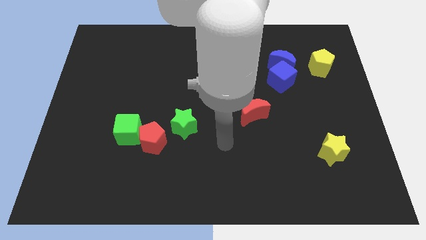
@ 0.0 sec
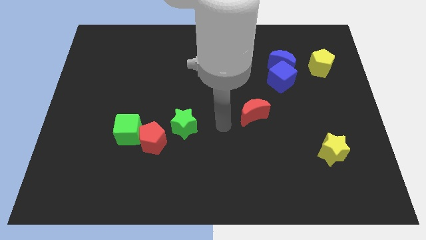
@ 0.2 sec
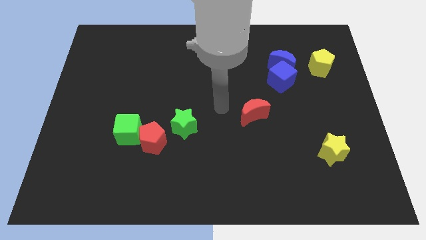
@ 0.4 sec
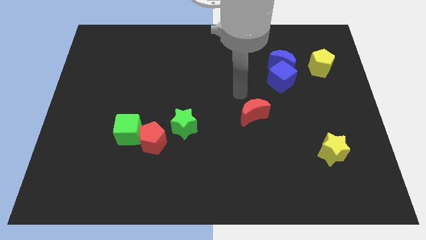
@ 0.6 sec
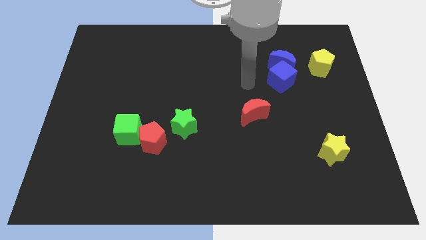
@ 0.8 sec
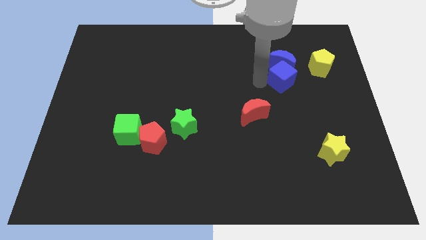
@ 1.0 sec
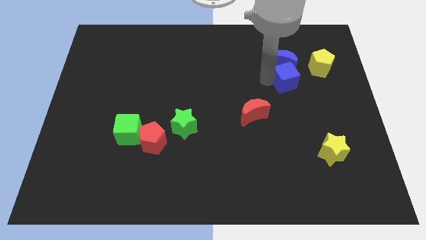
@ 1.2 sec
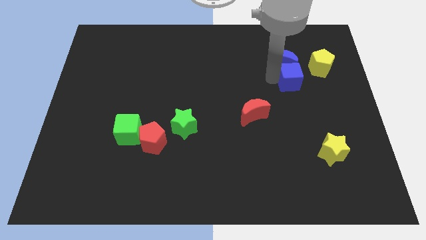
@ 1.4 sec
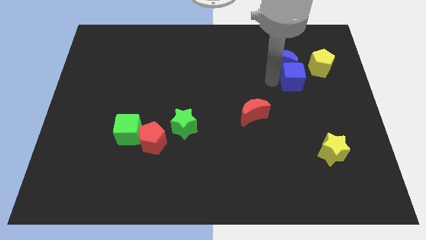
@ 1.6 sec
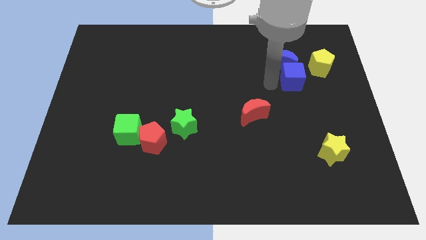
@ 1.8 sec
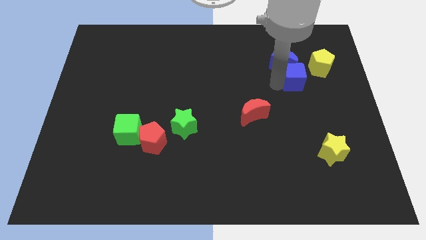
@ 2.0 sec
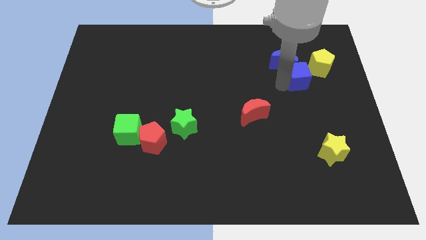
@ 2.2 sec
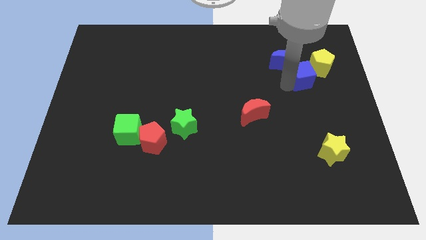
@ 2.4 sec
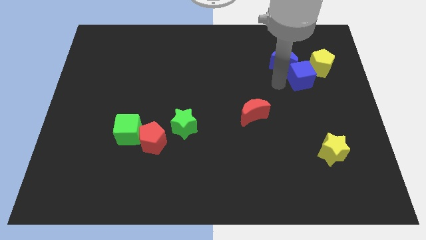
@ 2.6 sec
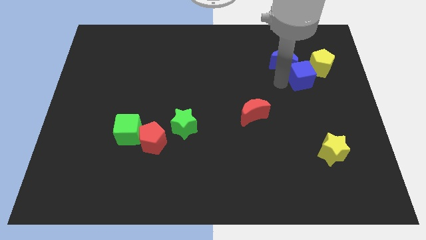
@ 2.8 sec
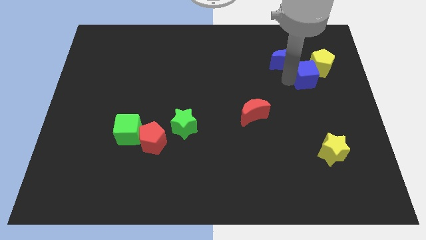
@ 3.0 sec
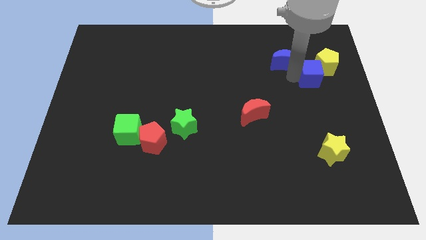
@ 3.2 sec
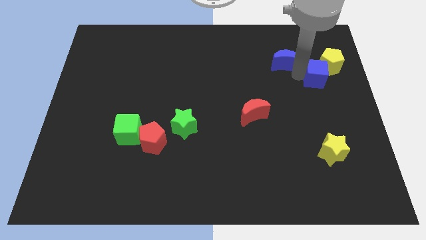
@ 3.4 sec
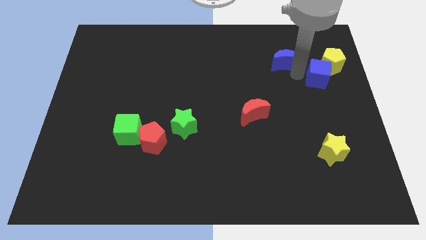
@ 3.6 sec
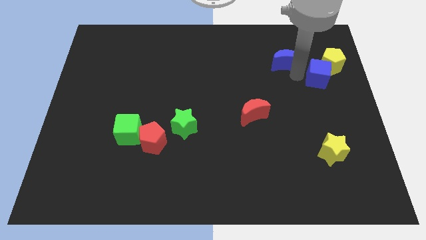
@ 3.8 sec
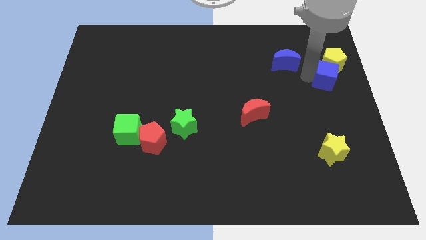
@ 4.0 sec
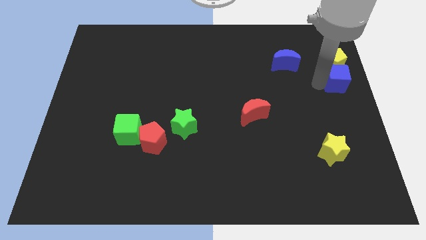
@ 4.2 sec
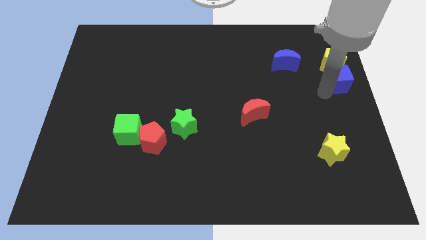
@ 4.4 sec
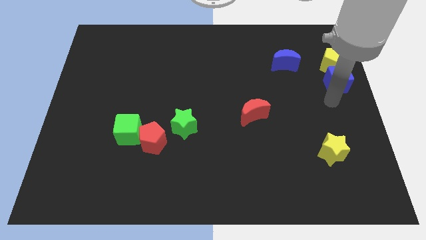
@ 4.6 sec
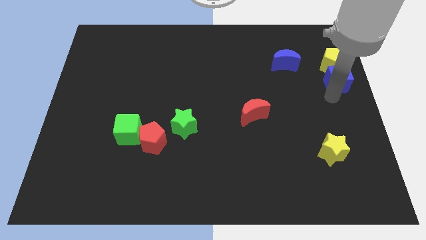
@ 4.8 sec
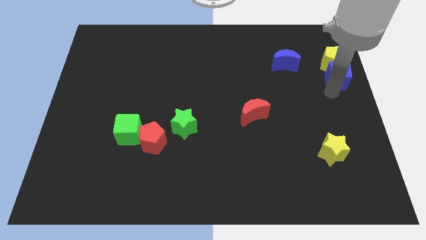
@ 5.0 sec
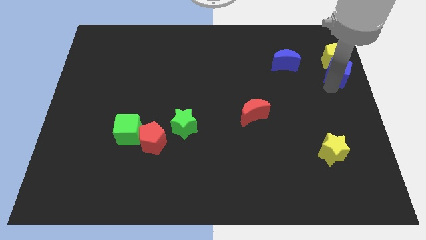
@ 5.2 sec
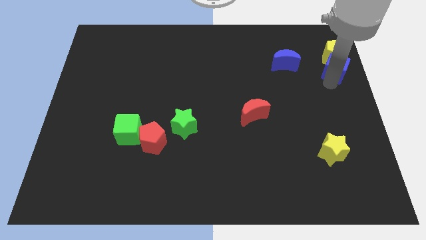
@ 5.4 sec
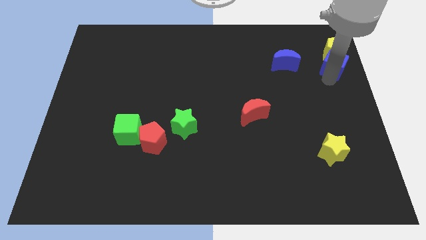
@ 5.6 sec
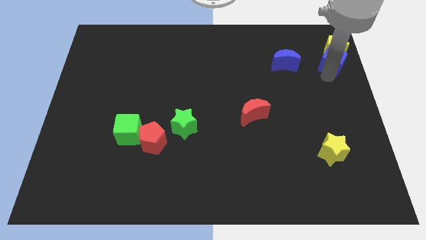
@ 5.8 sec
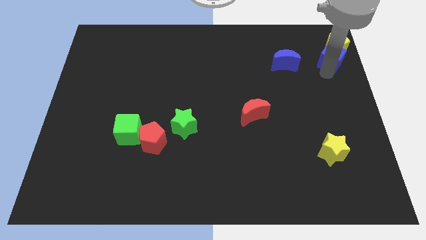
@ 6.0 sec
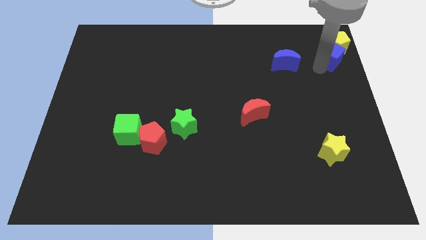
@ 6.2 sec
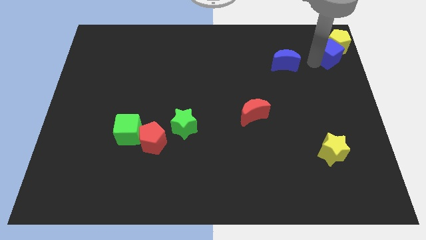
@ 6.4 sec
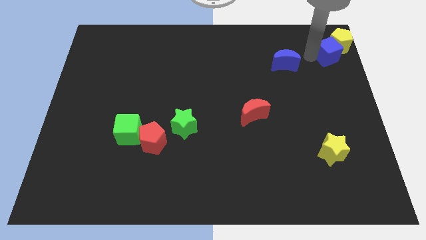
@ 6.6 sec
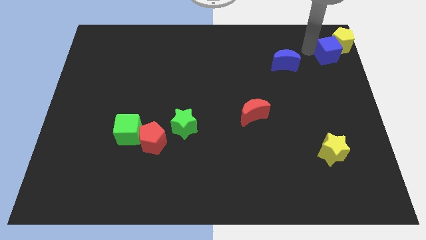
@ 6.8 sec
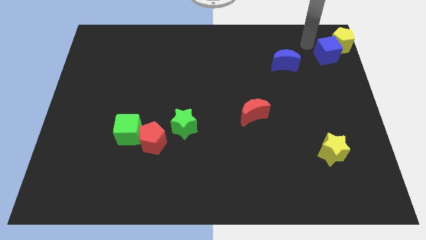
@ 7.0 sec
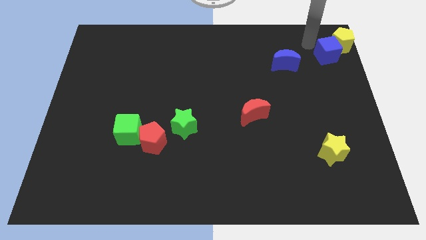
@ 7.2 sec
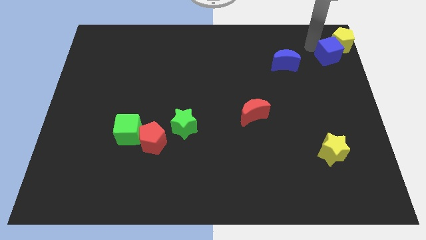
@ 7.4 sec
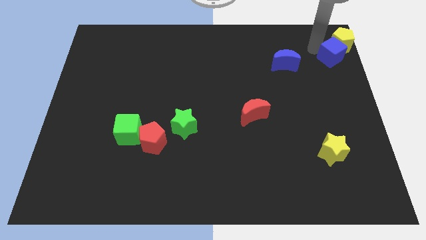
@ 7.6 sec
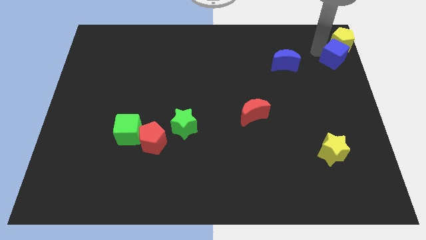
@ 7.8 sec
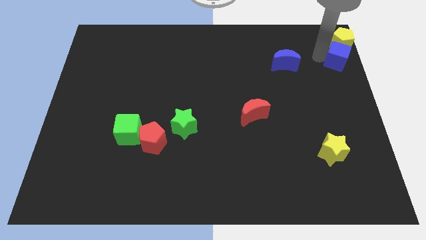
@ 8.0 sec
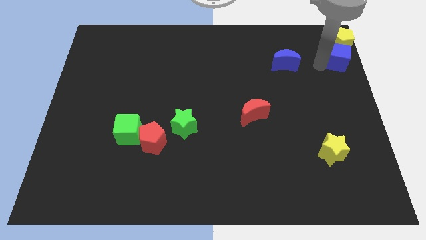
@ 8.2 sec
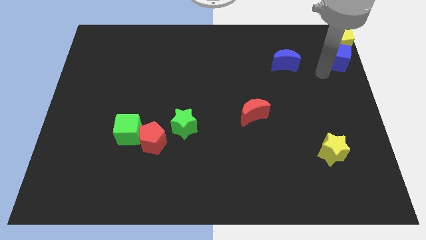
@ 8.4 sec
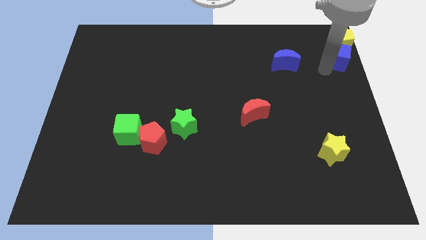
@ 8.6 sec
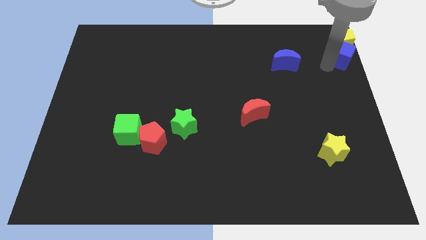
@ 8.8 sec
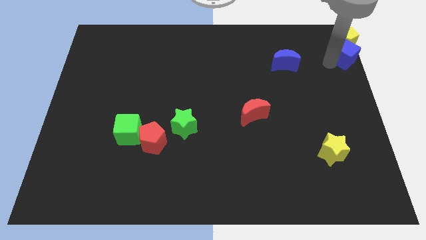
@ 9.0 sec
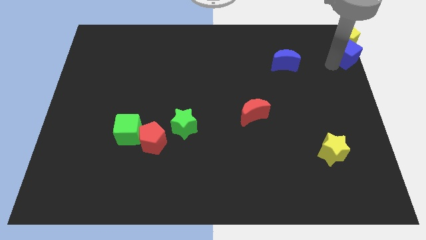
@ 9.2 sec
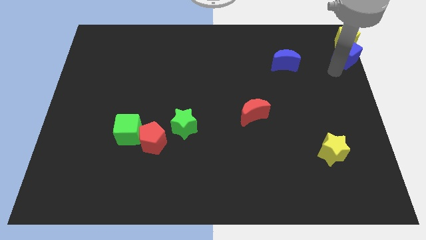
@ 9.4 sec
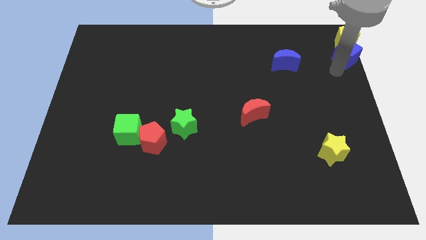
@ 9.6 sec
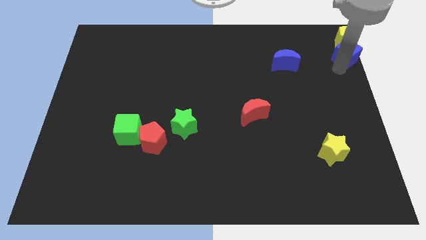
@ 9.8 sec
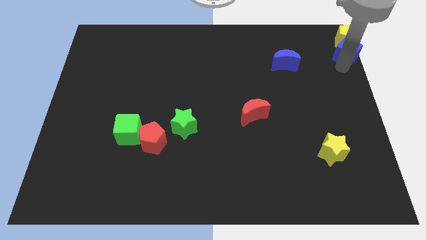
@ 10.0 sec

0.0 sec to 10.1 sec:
slide the blue cube to the top right

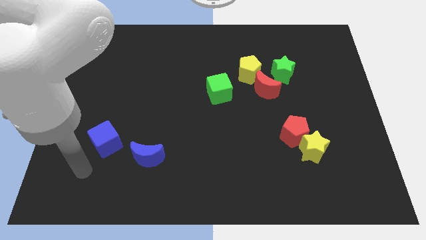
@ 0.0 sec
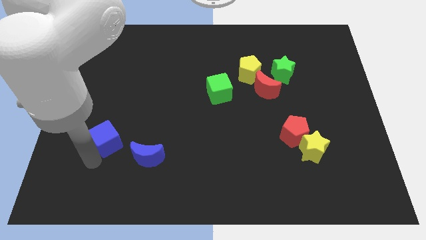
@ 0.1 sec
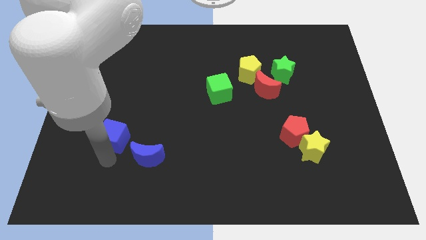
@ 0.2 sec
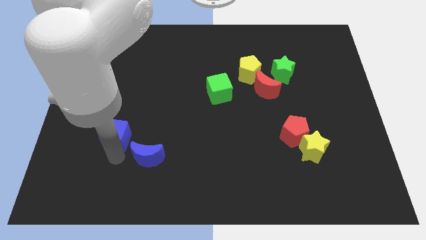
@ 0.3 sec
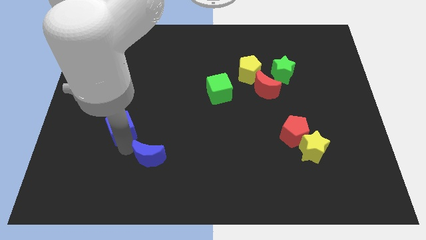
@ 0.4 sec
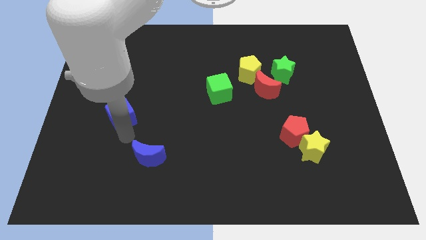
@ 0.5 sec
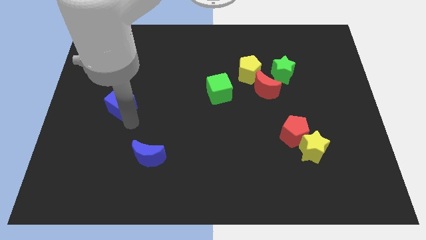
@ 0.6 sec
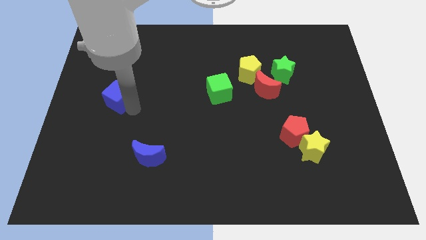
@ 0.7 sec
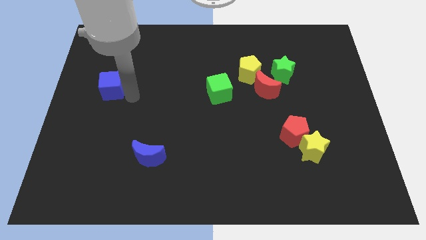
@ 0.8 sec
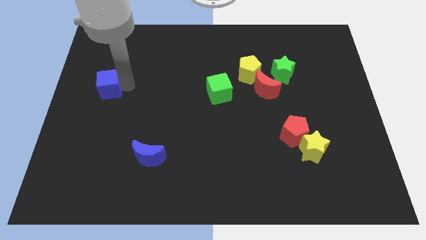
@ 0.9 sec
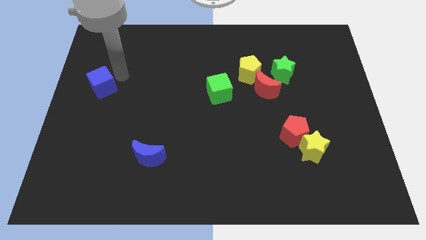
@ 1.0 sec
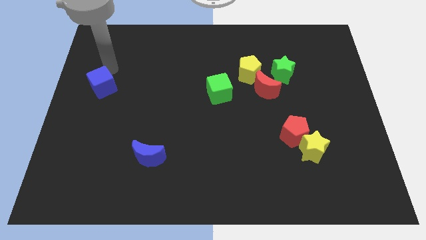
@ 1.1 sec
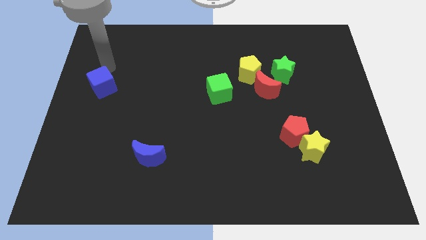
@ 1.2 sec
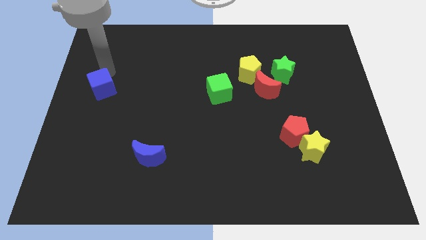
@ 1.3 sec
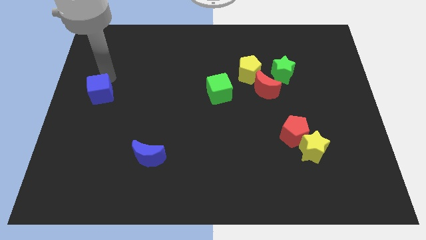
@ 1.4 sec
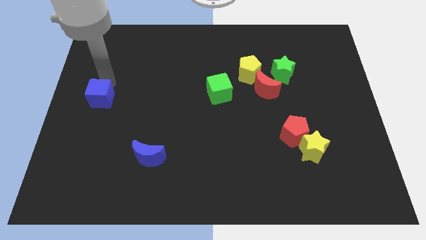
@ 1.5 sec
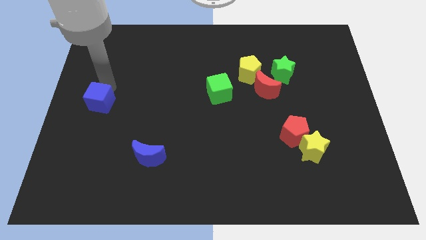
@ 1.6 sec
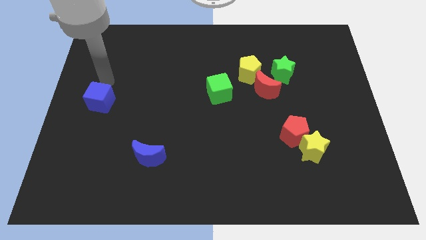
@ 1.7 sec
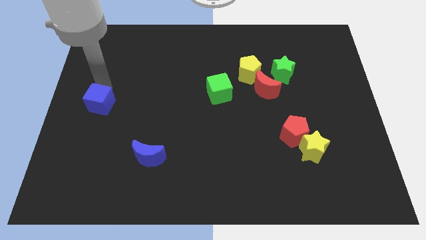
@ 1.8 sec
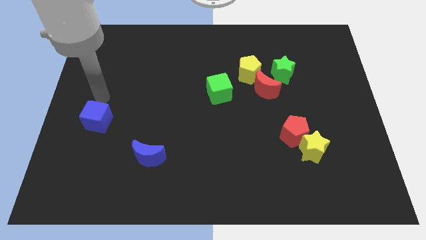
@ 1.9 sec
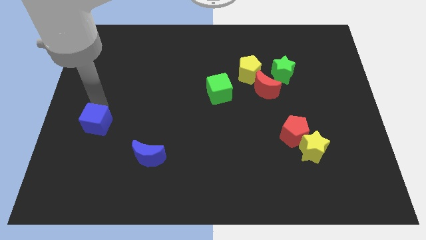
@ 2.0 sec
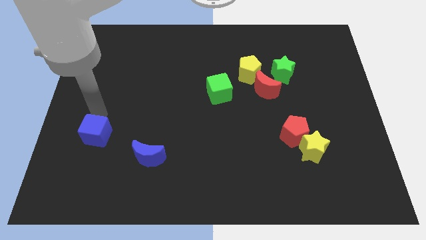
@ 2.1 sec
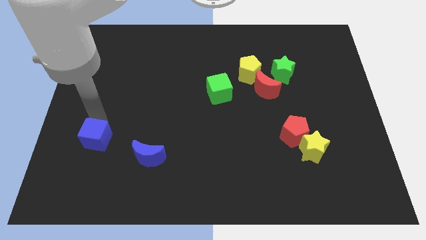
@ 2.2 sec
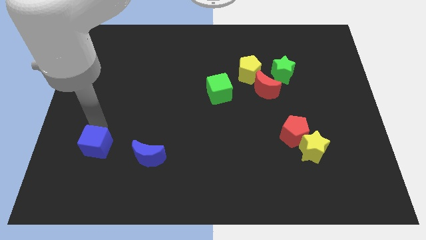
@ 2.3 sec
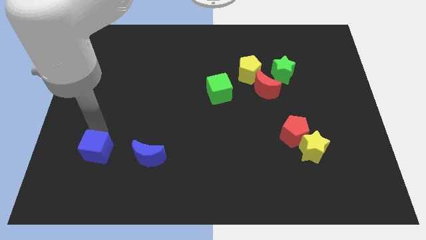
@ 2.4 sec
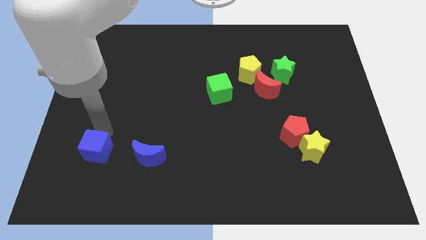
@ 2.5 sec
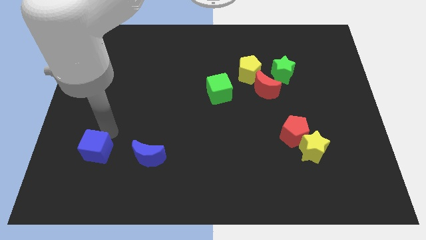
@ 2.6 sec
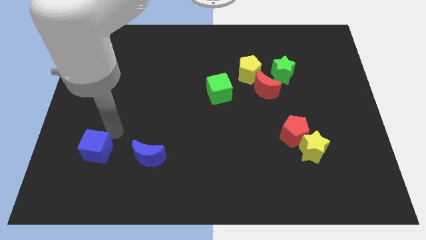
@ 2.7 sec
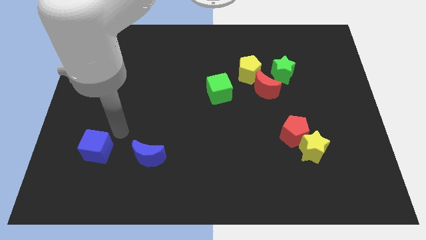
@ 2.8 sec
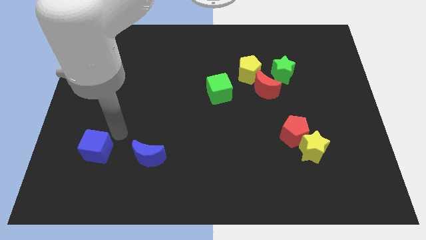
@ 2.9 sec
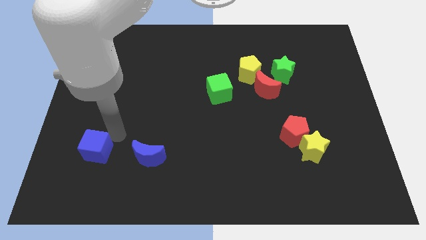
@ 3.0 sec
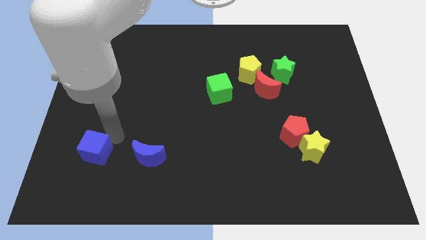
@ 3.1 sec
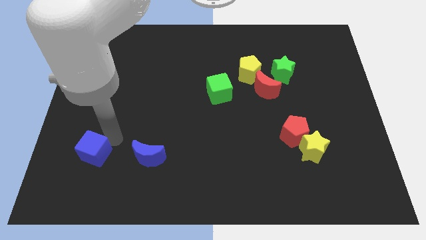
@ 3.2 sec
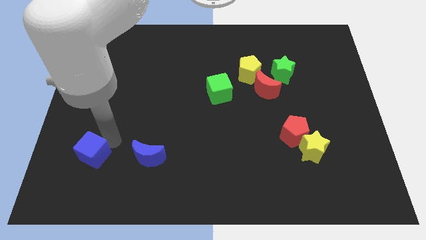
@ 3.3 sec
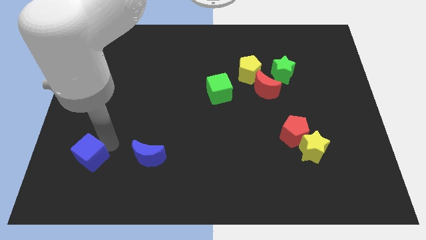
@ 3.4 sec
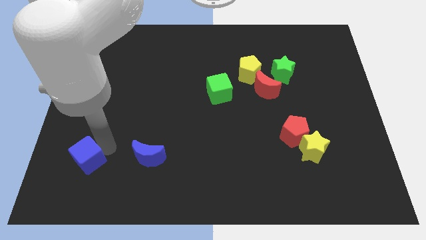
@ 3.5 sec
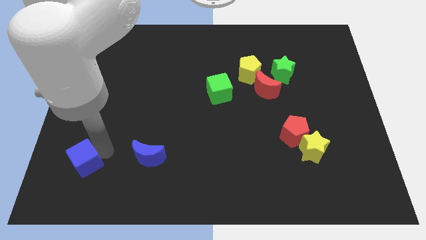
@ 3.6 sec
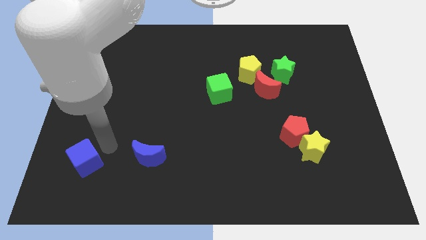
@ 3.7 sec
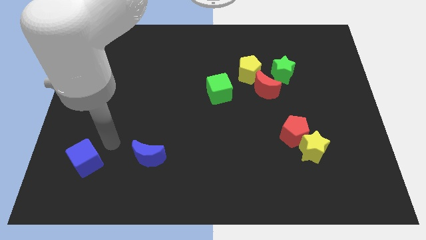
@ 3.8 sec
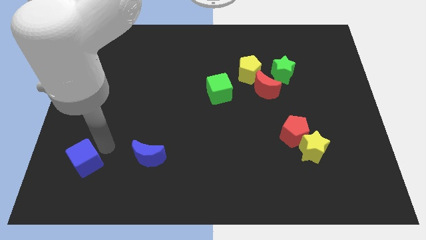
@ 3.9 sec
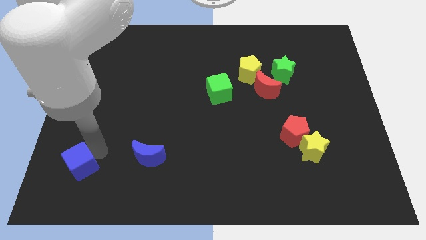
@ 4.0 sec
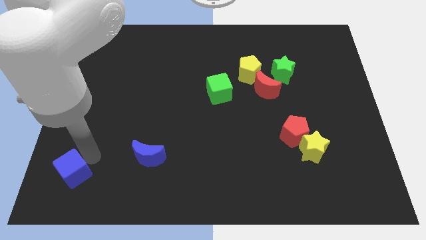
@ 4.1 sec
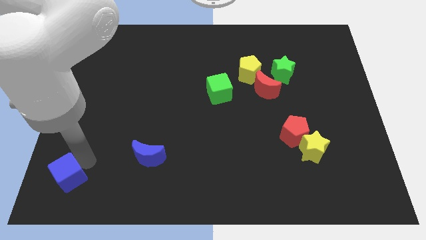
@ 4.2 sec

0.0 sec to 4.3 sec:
slide the blue cube to the lower left corner
